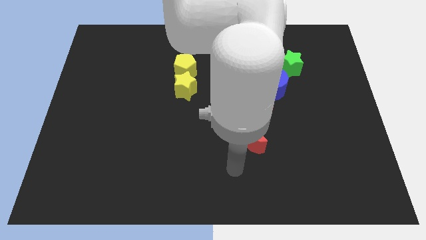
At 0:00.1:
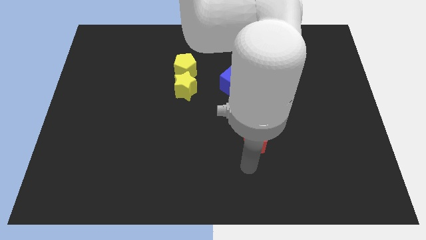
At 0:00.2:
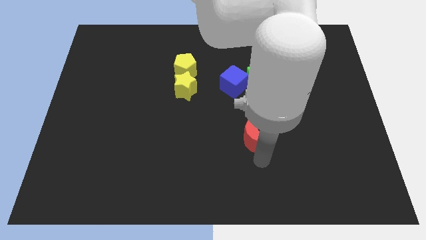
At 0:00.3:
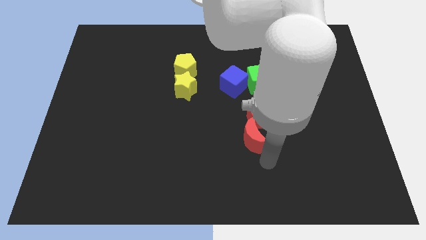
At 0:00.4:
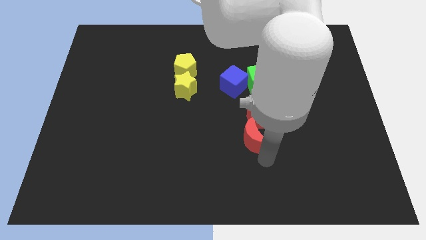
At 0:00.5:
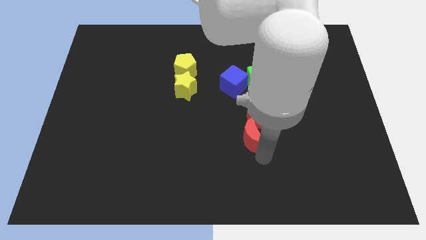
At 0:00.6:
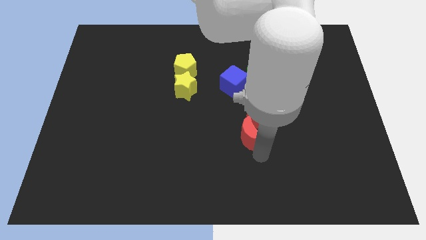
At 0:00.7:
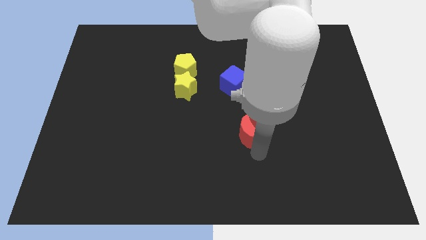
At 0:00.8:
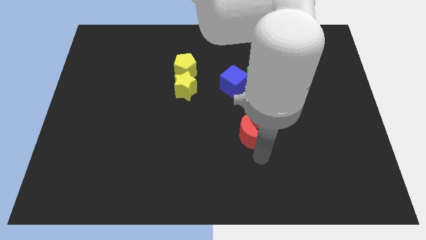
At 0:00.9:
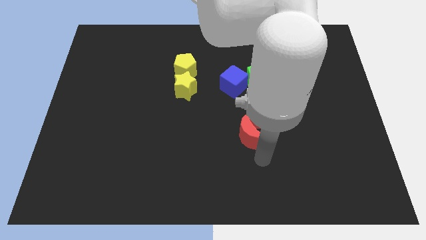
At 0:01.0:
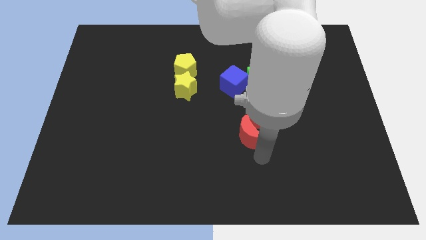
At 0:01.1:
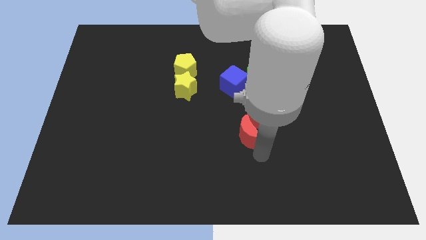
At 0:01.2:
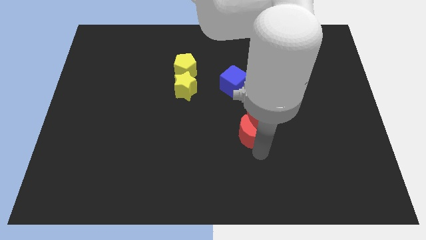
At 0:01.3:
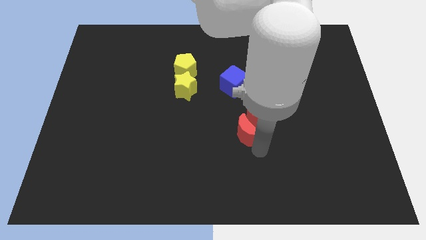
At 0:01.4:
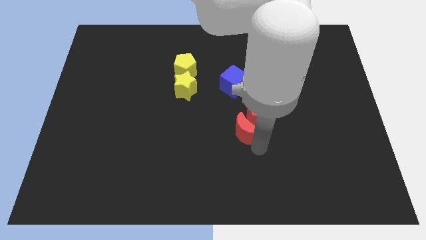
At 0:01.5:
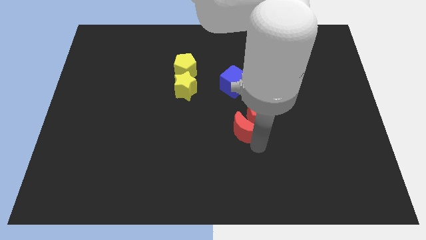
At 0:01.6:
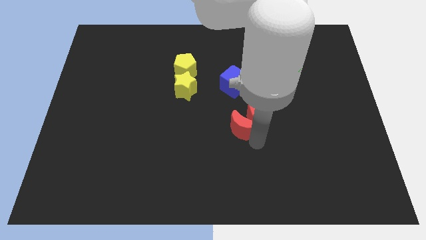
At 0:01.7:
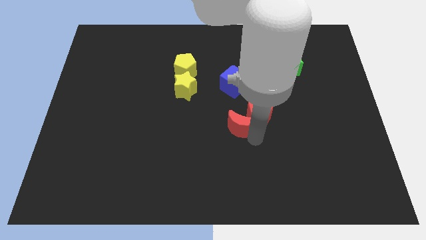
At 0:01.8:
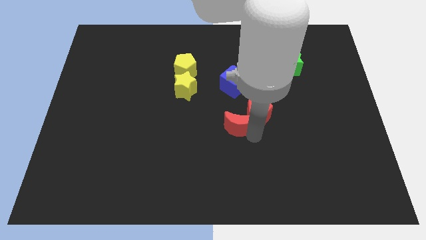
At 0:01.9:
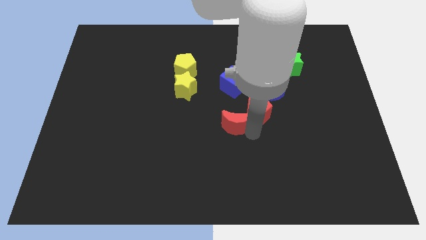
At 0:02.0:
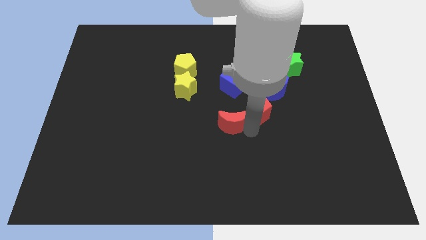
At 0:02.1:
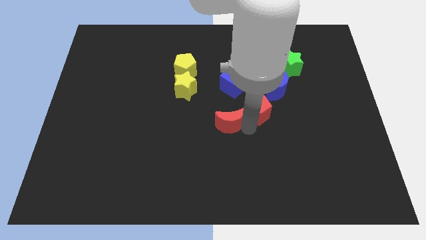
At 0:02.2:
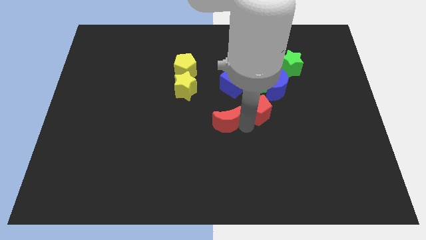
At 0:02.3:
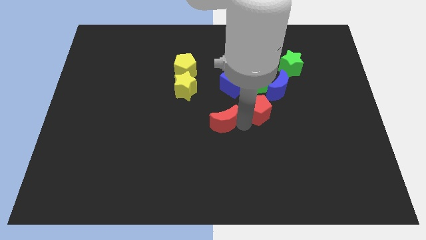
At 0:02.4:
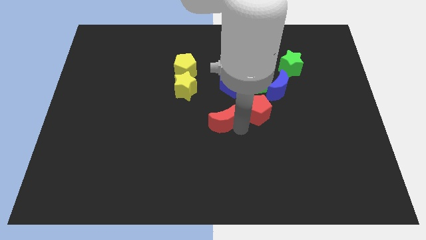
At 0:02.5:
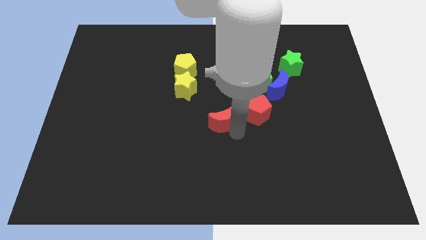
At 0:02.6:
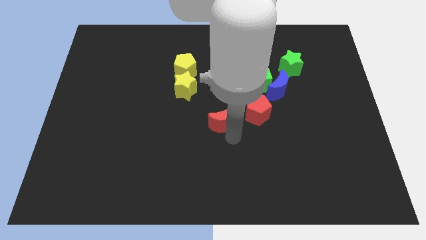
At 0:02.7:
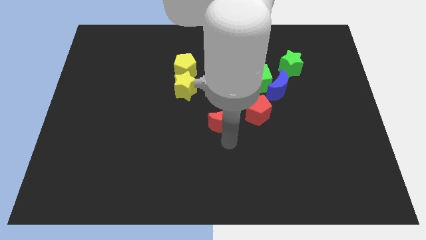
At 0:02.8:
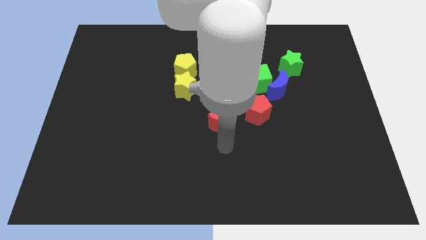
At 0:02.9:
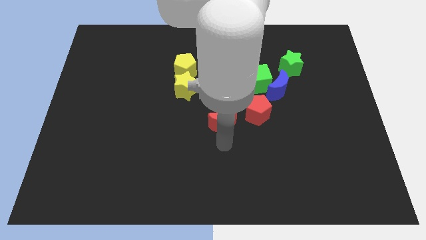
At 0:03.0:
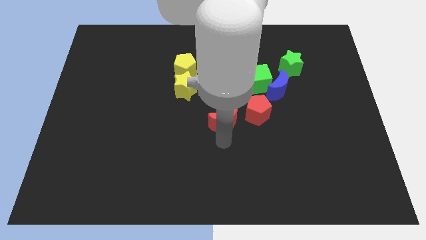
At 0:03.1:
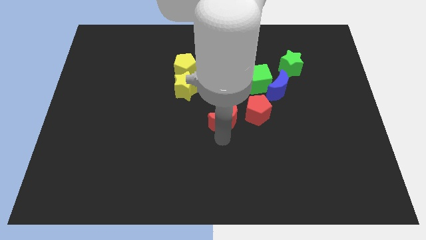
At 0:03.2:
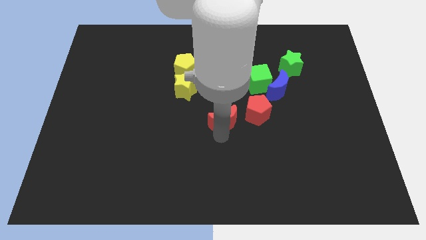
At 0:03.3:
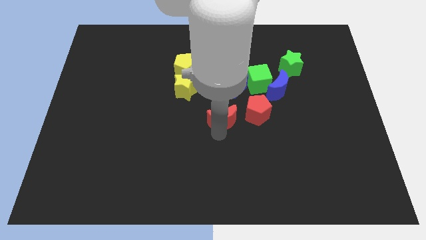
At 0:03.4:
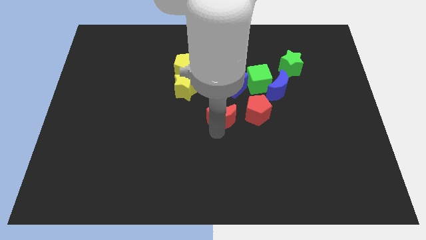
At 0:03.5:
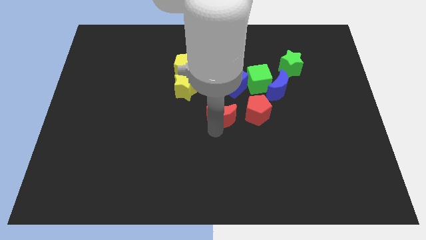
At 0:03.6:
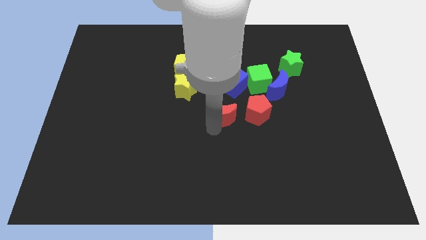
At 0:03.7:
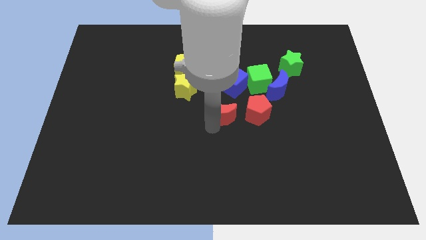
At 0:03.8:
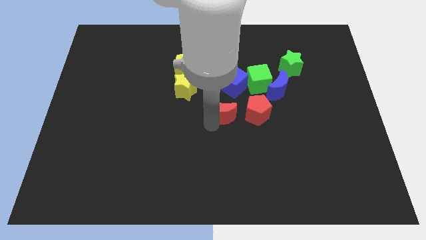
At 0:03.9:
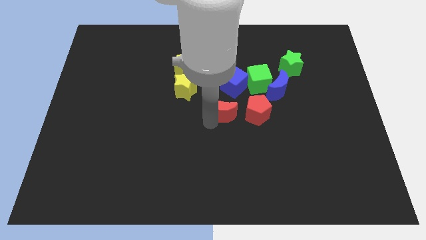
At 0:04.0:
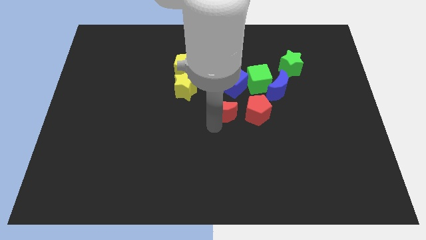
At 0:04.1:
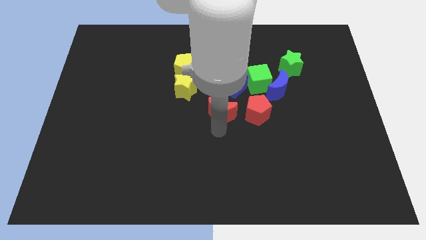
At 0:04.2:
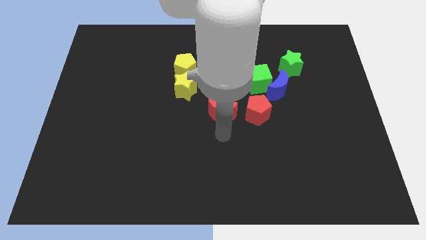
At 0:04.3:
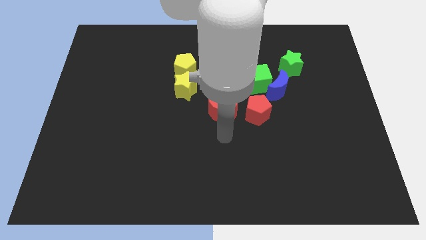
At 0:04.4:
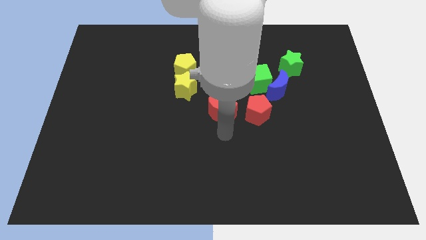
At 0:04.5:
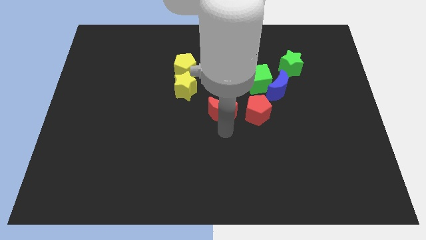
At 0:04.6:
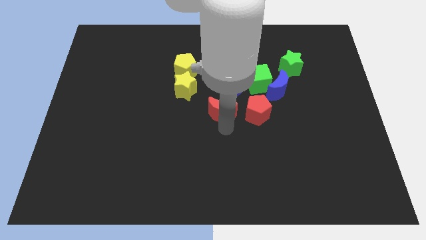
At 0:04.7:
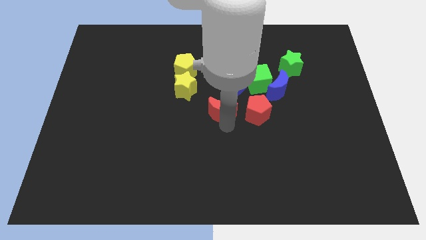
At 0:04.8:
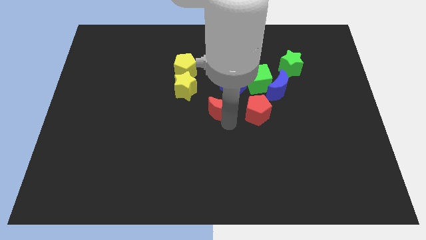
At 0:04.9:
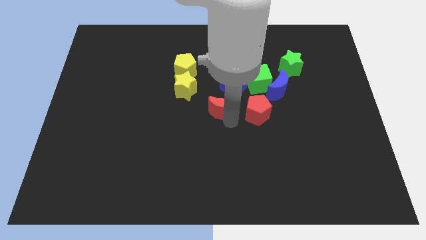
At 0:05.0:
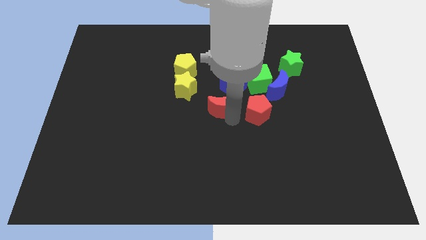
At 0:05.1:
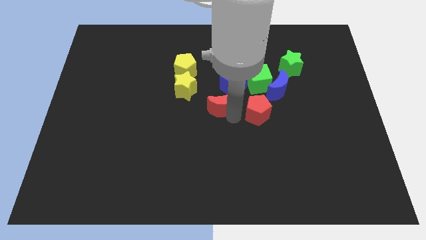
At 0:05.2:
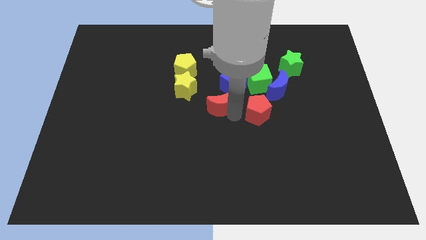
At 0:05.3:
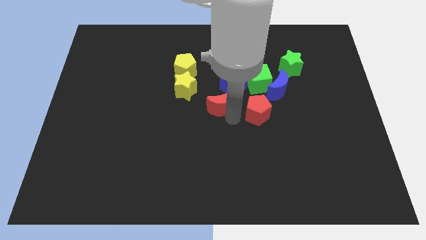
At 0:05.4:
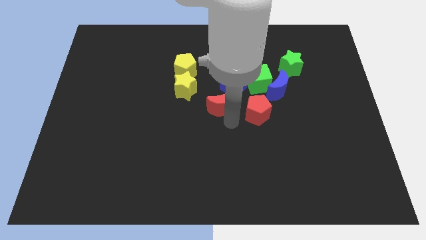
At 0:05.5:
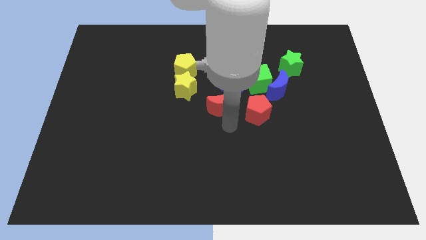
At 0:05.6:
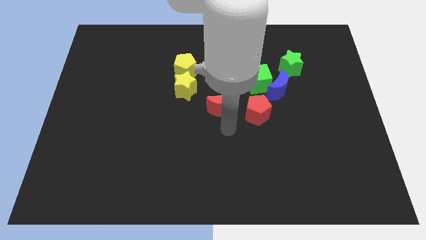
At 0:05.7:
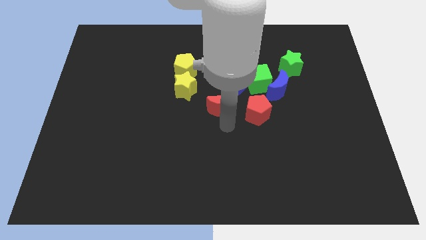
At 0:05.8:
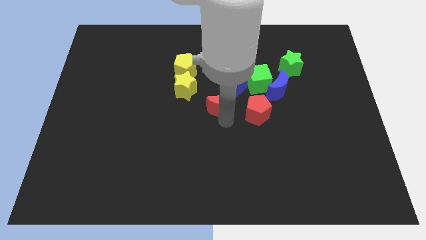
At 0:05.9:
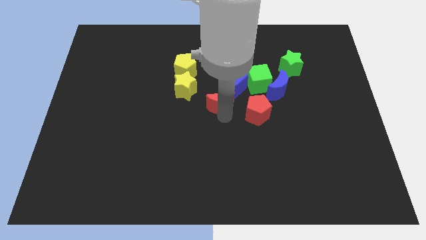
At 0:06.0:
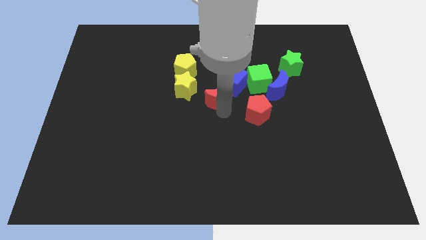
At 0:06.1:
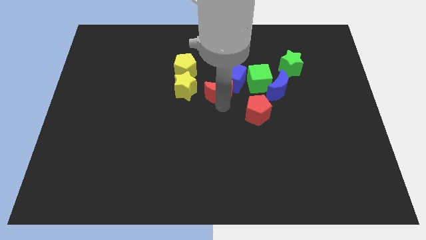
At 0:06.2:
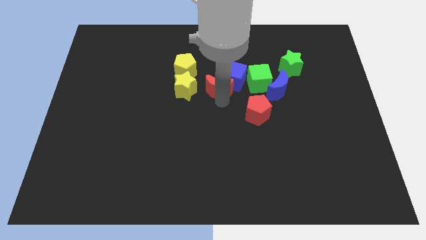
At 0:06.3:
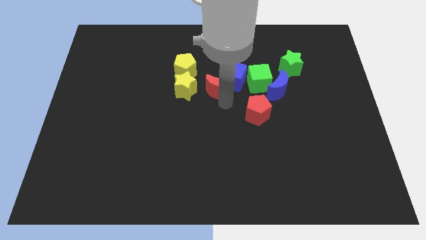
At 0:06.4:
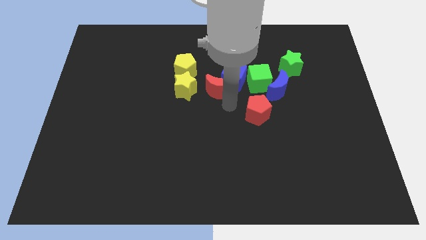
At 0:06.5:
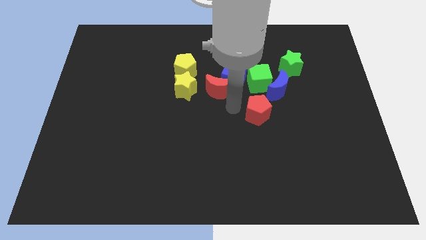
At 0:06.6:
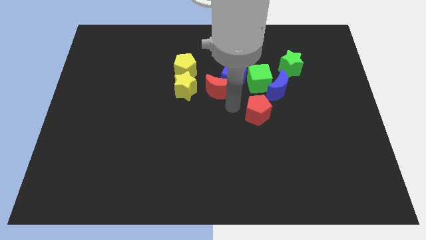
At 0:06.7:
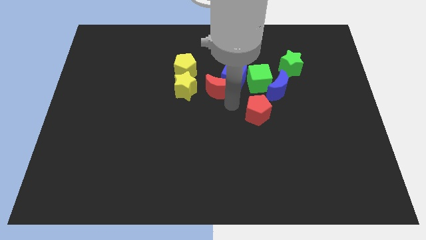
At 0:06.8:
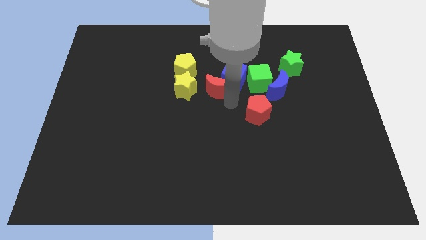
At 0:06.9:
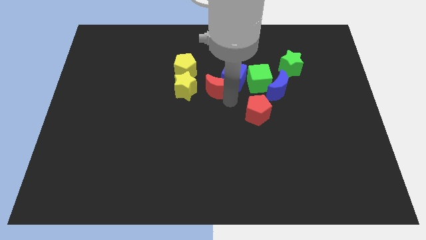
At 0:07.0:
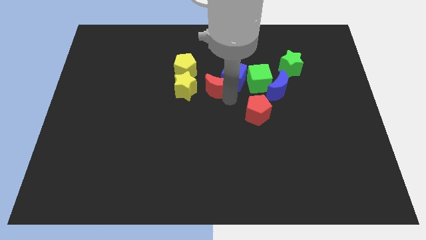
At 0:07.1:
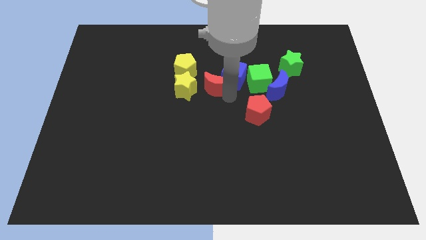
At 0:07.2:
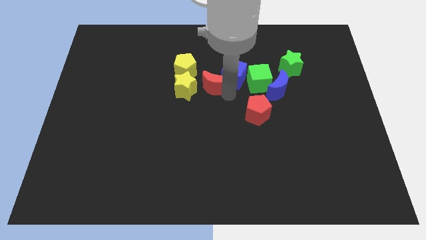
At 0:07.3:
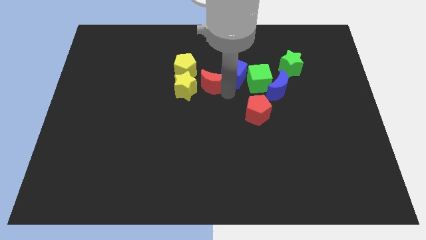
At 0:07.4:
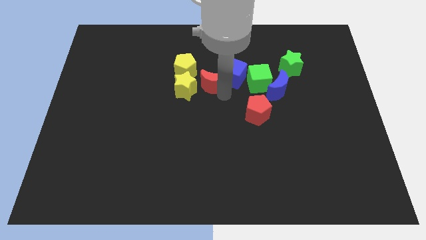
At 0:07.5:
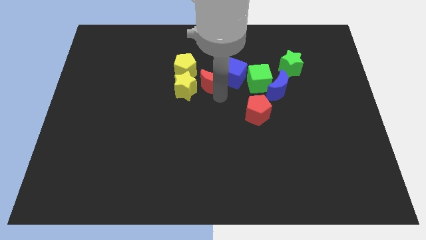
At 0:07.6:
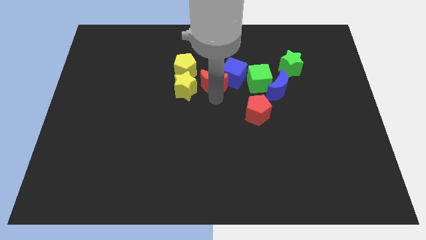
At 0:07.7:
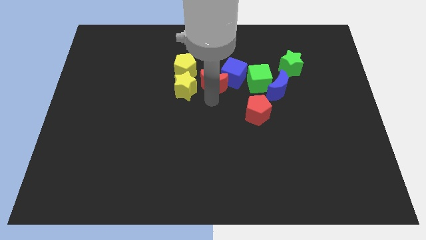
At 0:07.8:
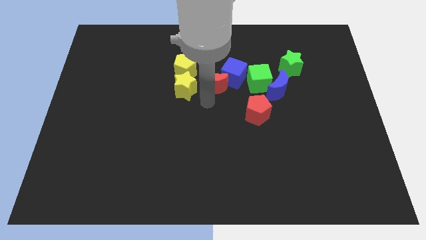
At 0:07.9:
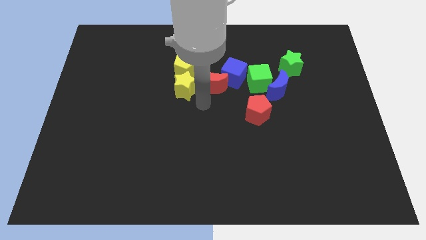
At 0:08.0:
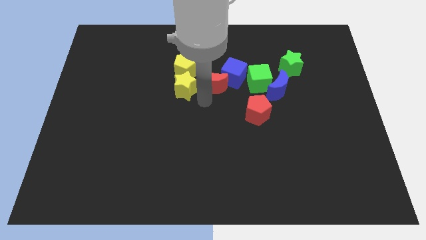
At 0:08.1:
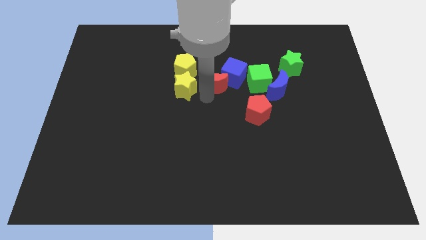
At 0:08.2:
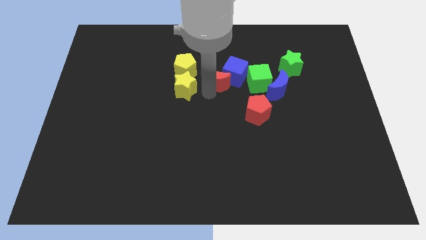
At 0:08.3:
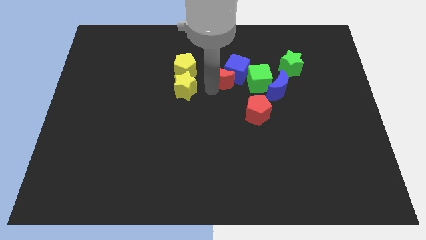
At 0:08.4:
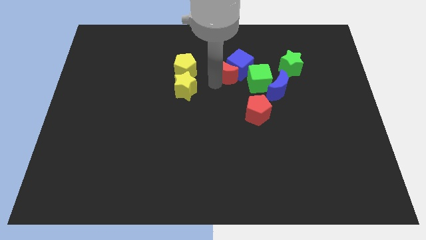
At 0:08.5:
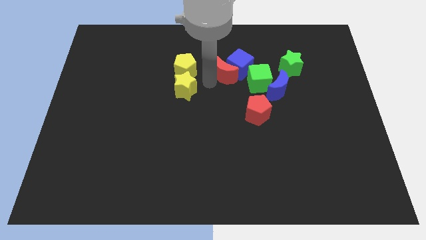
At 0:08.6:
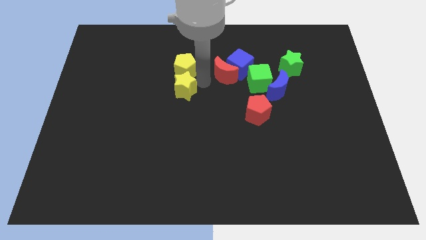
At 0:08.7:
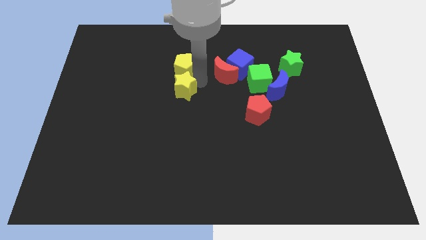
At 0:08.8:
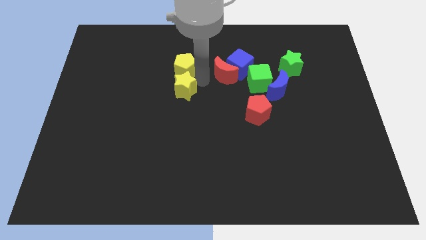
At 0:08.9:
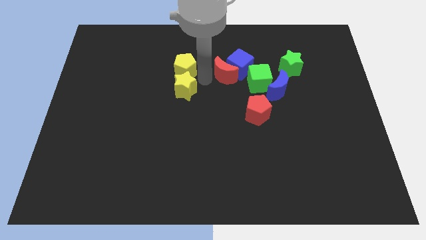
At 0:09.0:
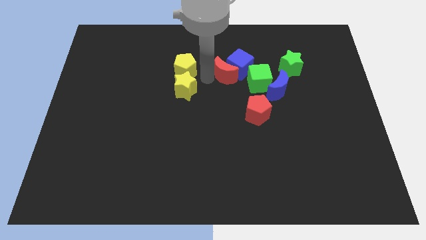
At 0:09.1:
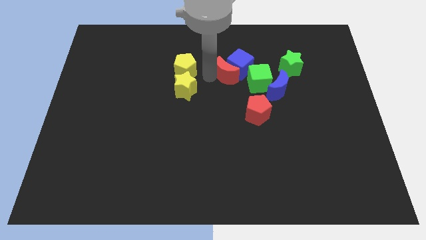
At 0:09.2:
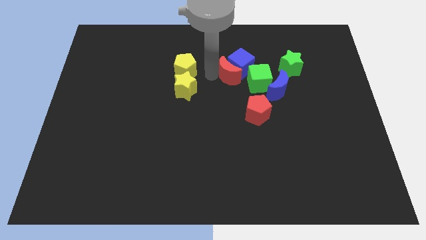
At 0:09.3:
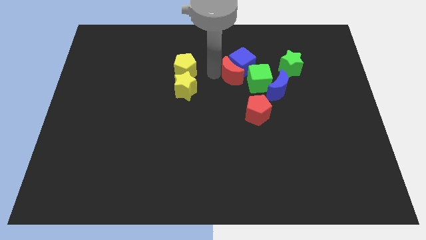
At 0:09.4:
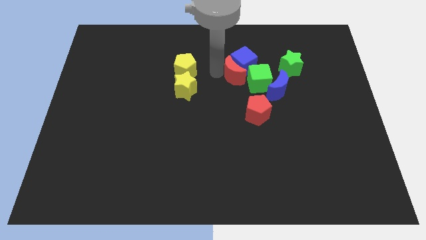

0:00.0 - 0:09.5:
put the red moon to the left side of the green star
